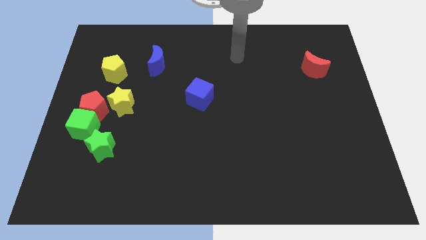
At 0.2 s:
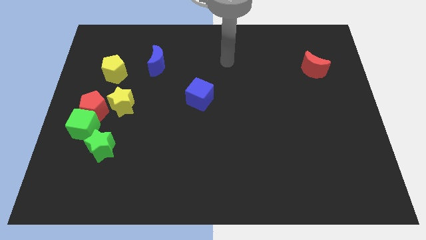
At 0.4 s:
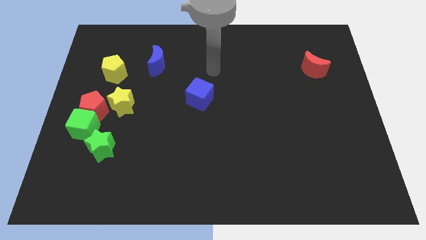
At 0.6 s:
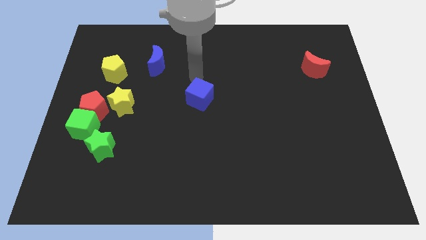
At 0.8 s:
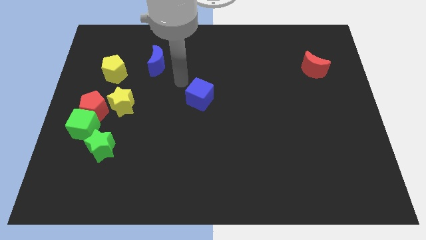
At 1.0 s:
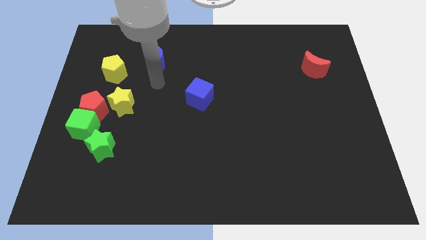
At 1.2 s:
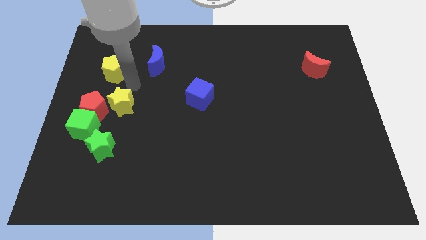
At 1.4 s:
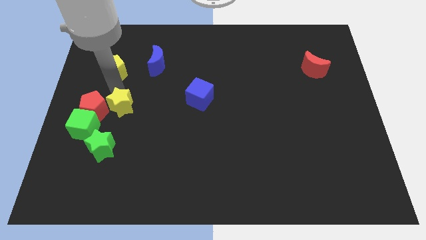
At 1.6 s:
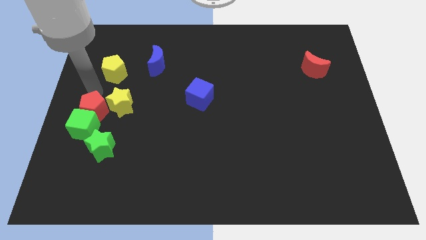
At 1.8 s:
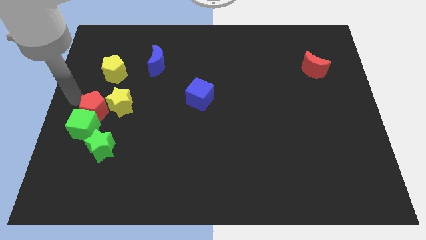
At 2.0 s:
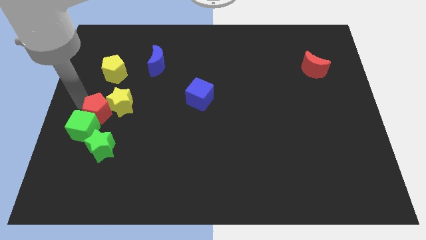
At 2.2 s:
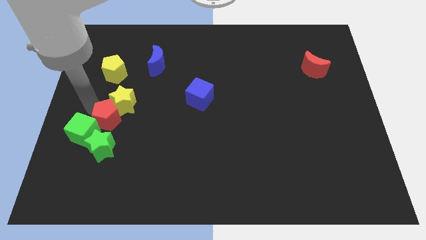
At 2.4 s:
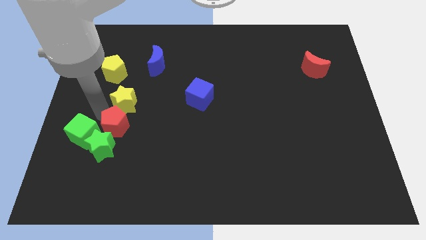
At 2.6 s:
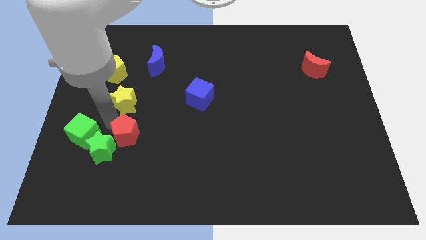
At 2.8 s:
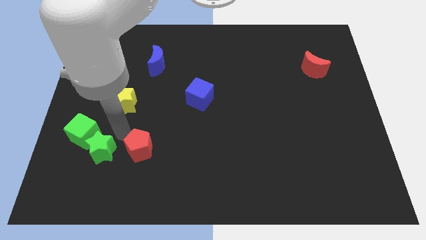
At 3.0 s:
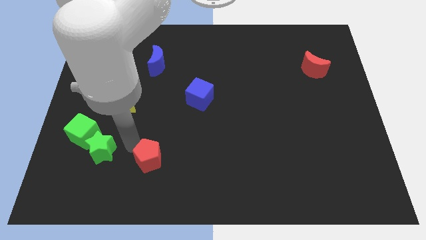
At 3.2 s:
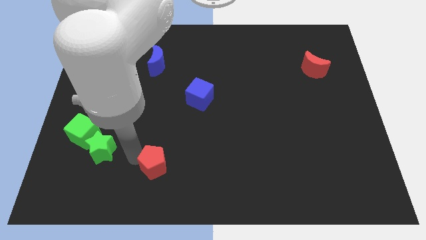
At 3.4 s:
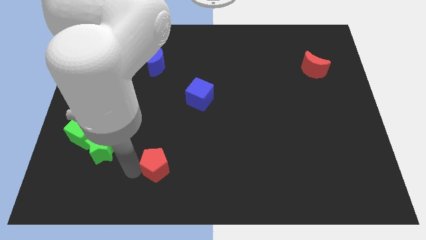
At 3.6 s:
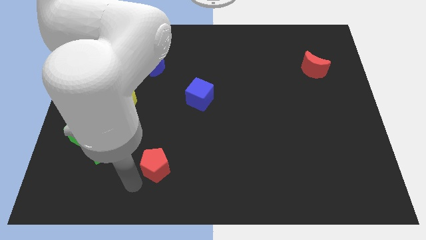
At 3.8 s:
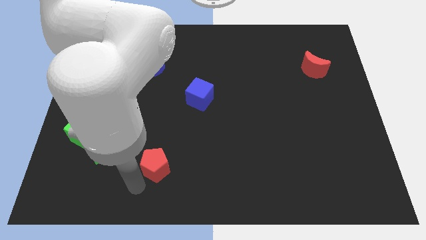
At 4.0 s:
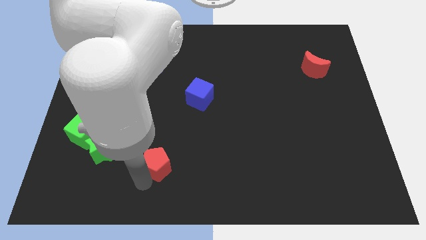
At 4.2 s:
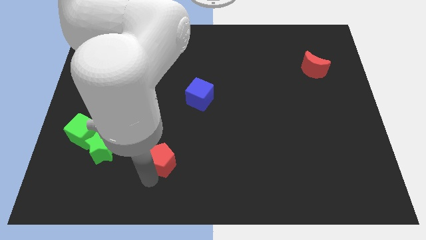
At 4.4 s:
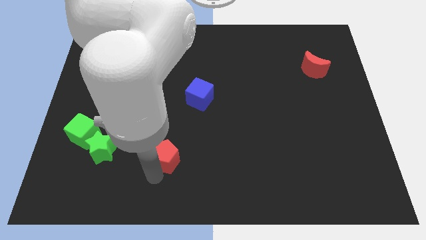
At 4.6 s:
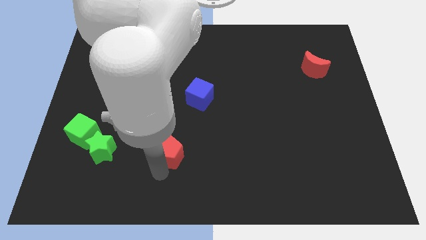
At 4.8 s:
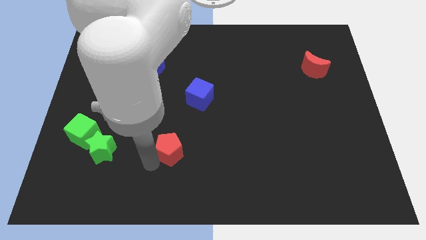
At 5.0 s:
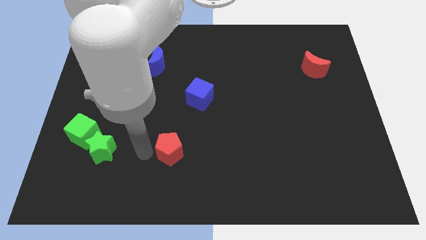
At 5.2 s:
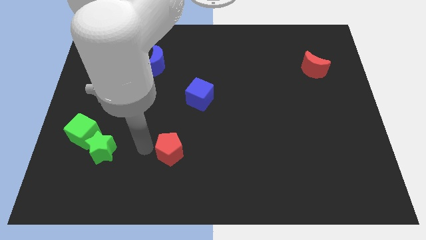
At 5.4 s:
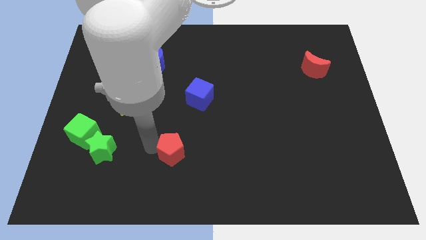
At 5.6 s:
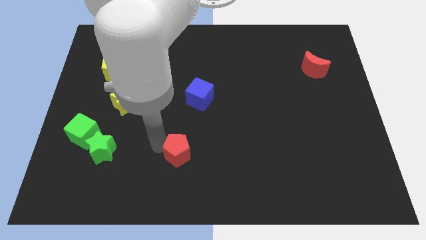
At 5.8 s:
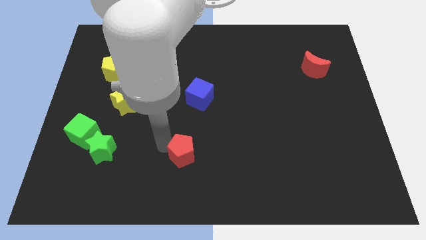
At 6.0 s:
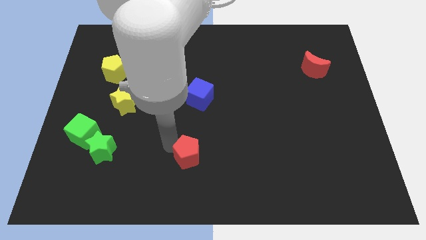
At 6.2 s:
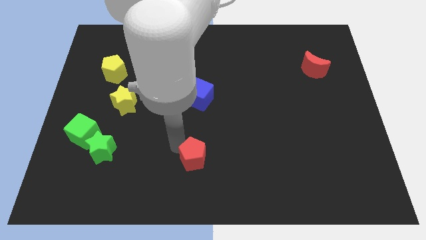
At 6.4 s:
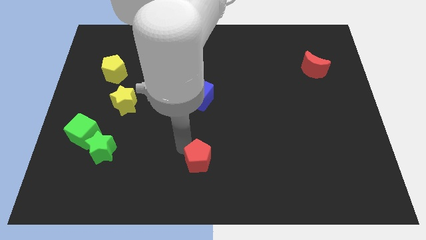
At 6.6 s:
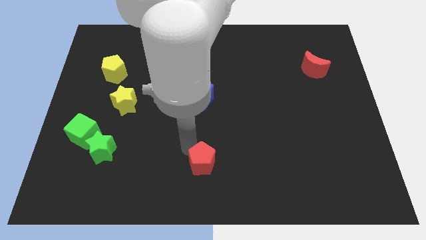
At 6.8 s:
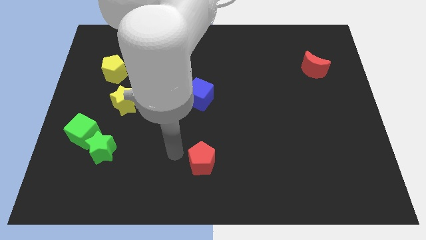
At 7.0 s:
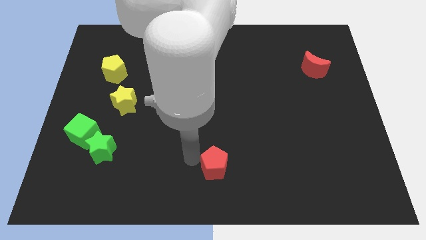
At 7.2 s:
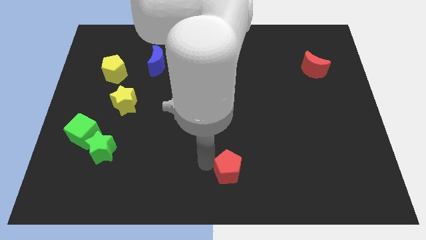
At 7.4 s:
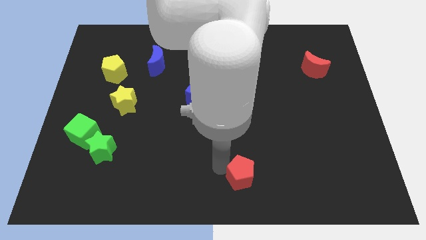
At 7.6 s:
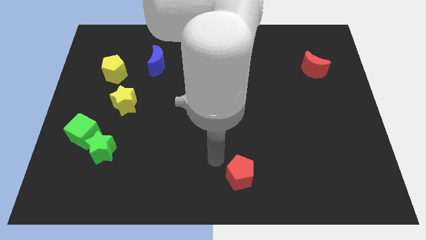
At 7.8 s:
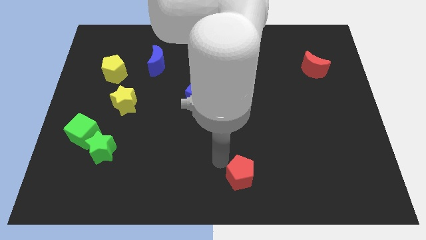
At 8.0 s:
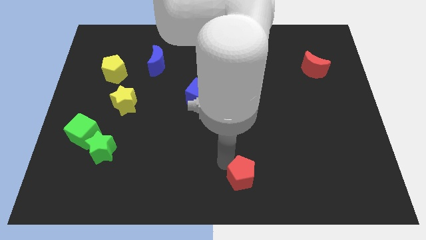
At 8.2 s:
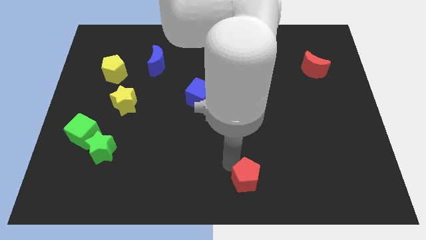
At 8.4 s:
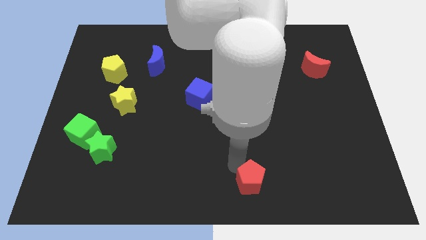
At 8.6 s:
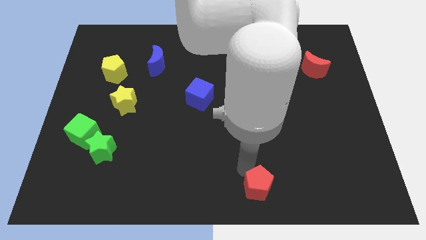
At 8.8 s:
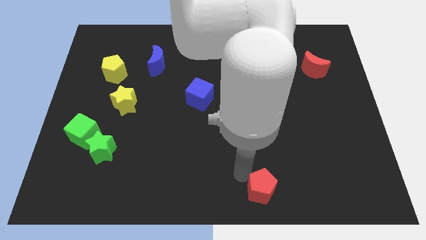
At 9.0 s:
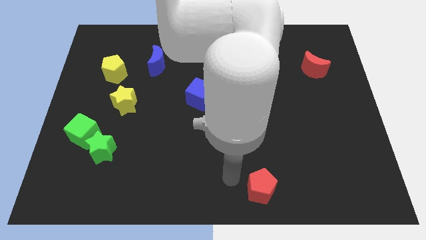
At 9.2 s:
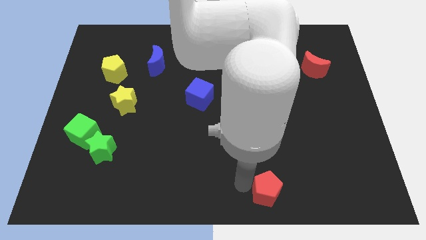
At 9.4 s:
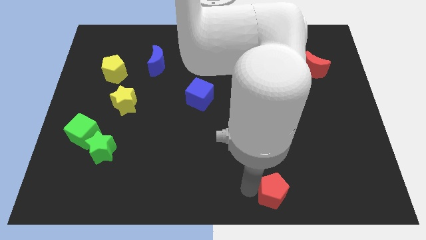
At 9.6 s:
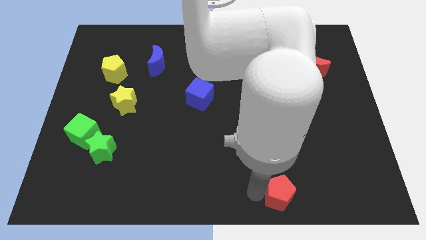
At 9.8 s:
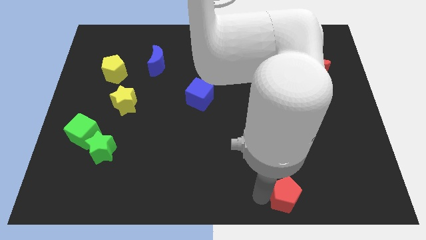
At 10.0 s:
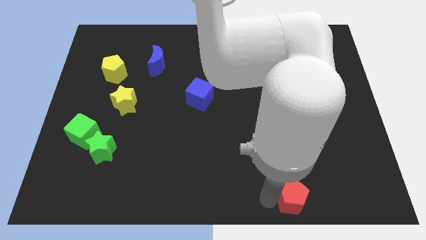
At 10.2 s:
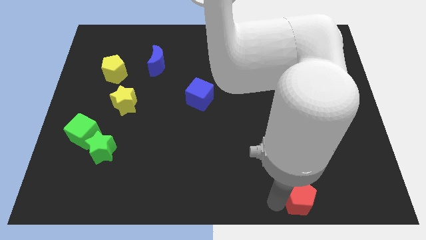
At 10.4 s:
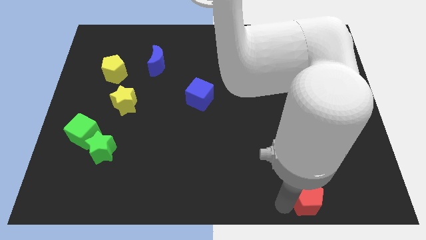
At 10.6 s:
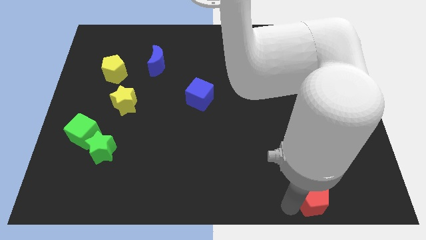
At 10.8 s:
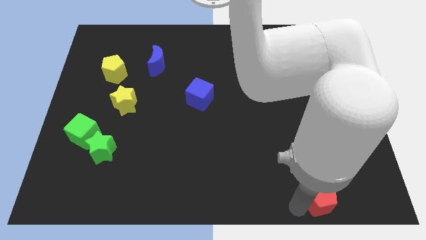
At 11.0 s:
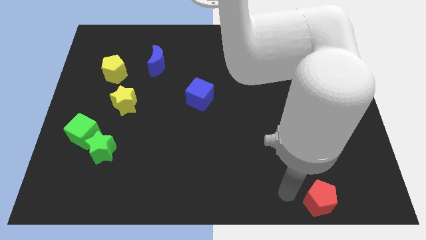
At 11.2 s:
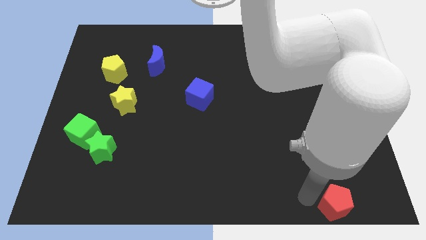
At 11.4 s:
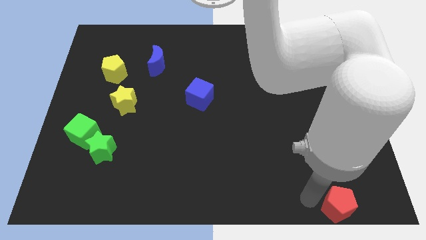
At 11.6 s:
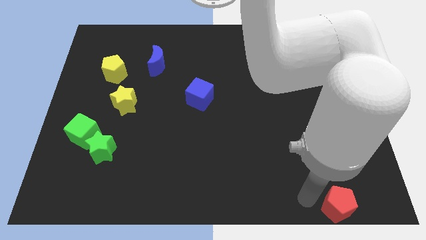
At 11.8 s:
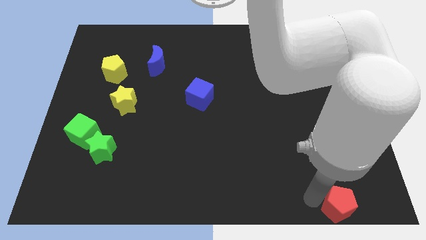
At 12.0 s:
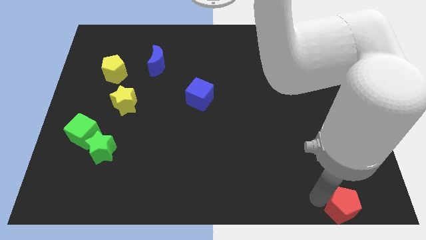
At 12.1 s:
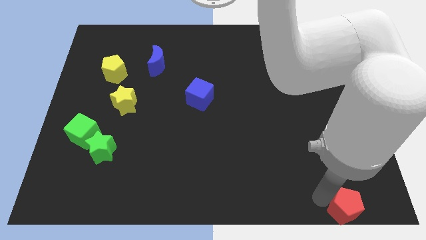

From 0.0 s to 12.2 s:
slide the red pentagon to the bottom right of the board
